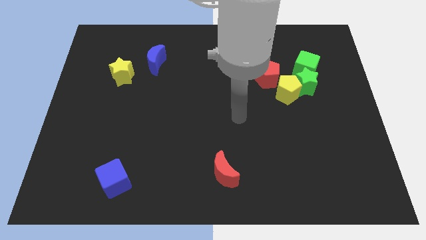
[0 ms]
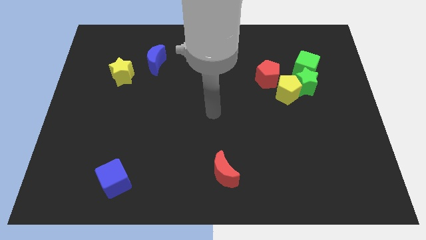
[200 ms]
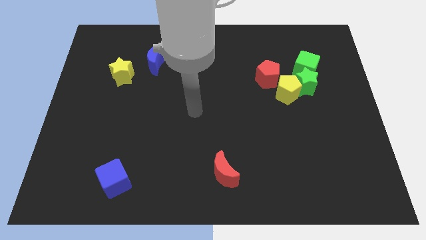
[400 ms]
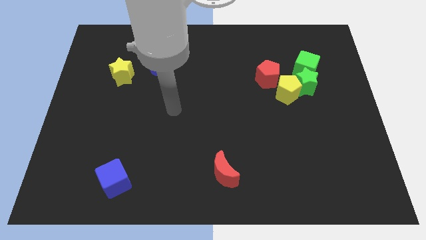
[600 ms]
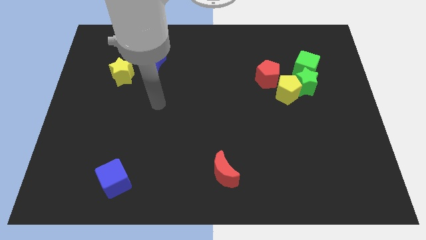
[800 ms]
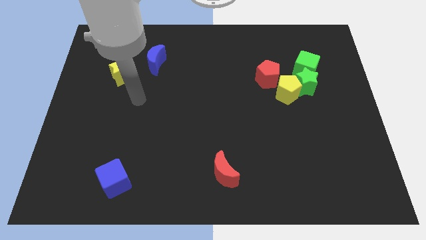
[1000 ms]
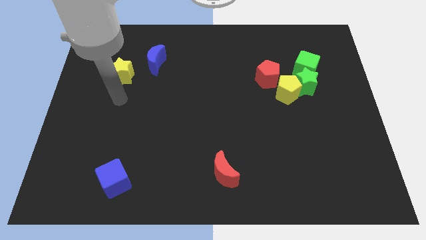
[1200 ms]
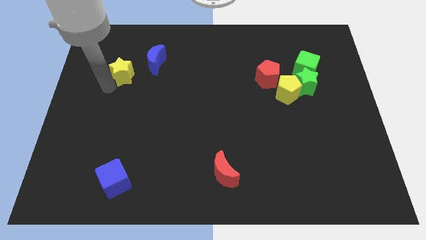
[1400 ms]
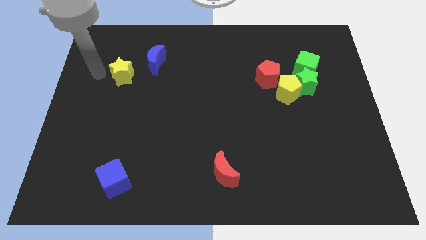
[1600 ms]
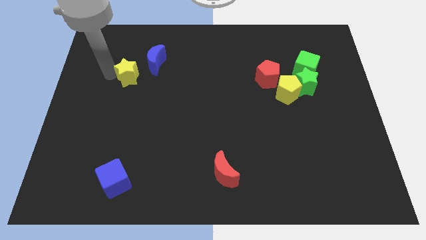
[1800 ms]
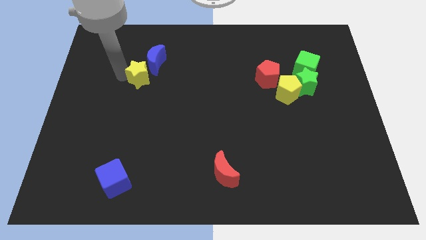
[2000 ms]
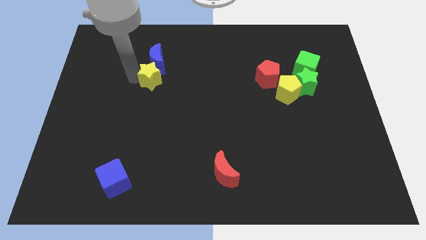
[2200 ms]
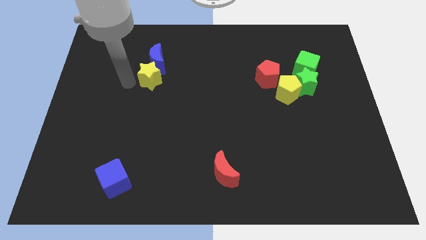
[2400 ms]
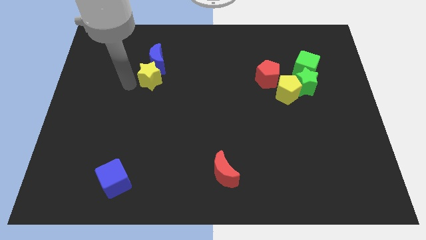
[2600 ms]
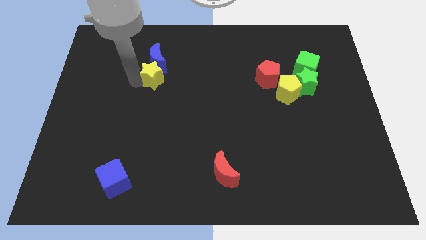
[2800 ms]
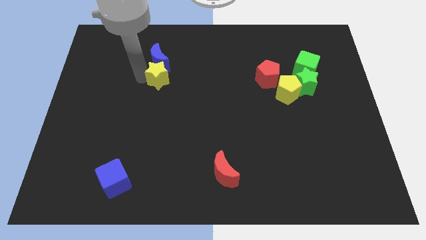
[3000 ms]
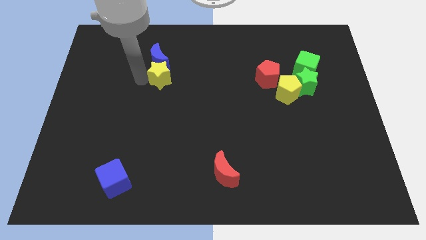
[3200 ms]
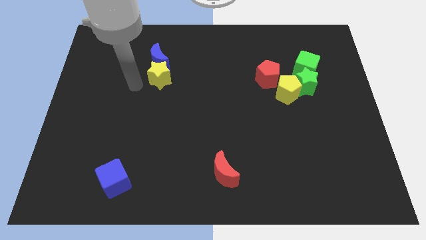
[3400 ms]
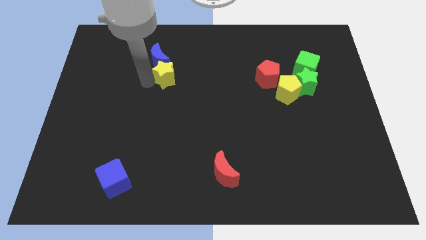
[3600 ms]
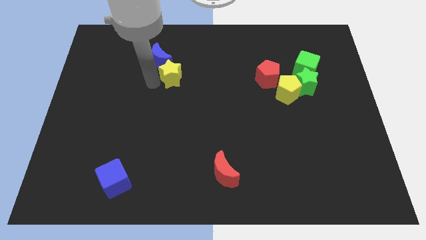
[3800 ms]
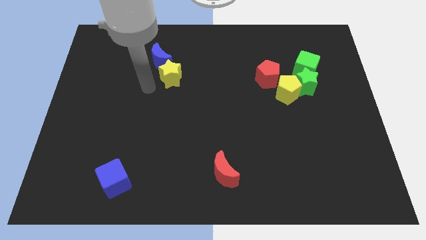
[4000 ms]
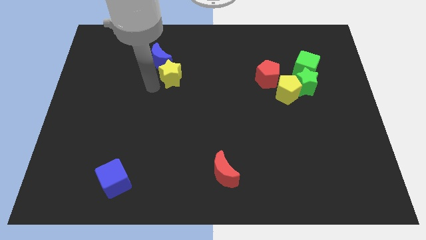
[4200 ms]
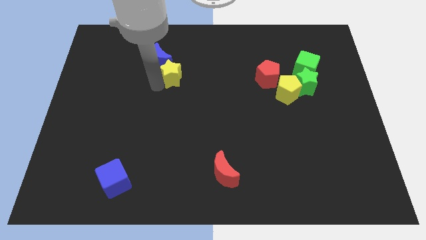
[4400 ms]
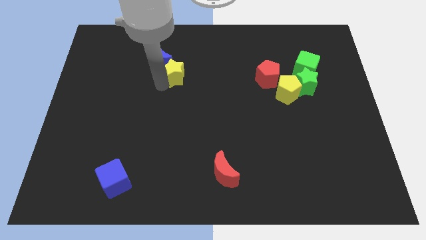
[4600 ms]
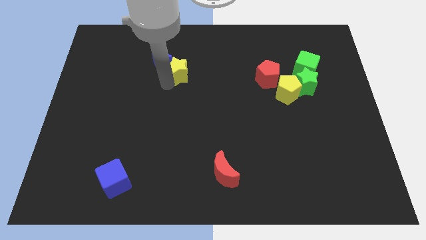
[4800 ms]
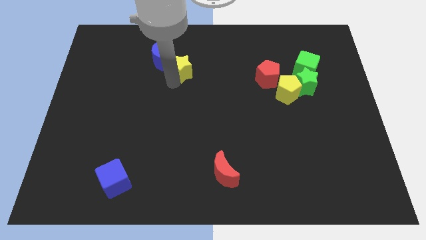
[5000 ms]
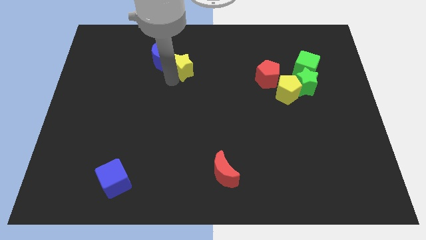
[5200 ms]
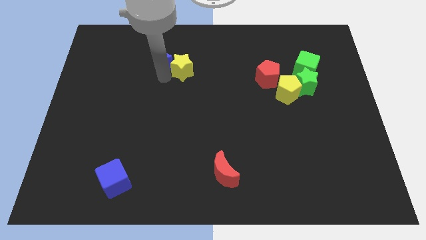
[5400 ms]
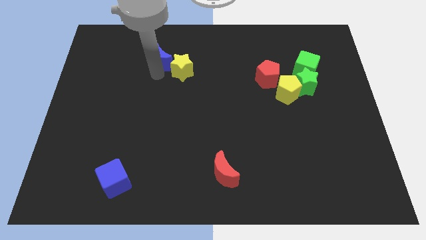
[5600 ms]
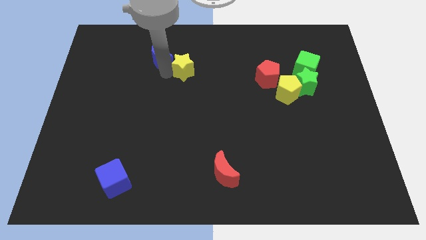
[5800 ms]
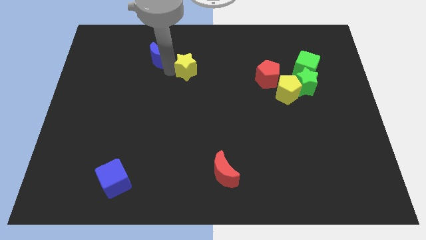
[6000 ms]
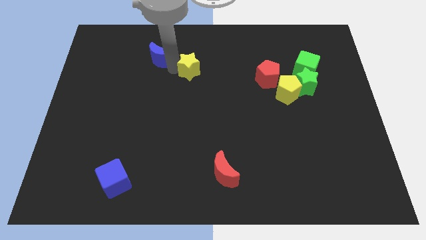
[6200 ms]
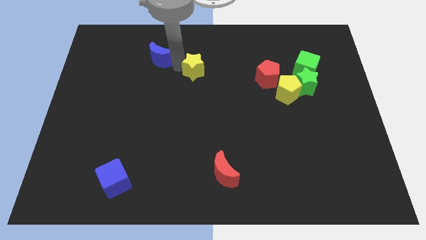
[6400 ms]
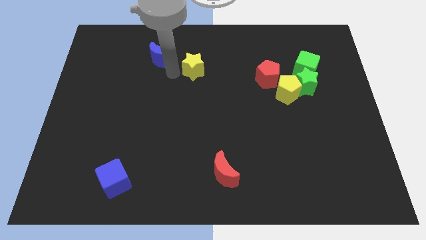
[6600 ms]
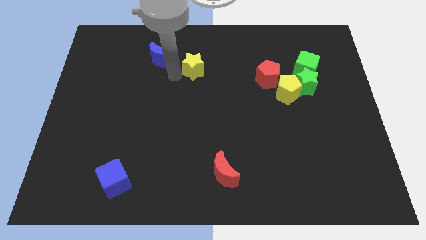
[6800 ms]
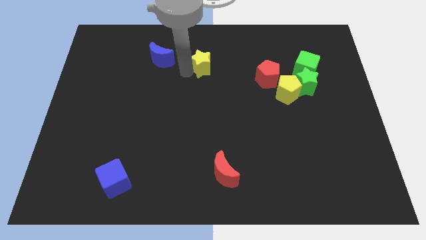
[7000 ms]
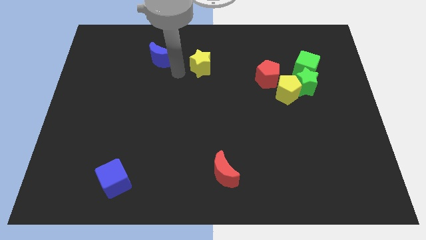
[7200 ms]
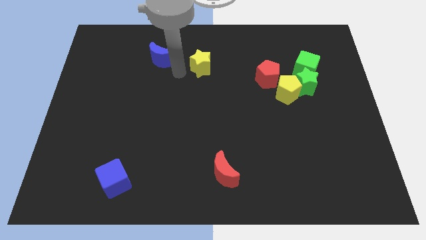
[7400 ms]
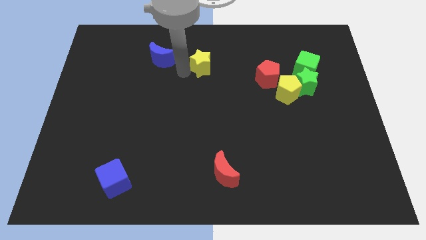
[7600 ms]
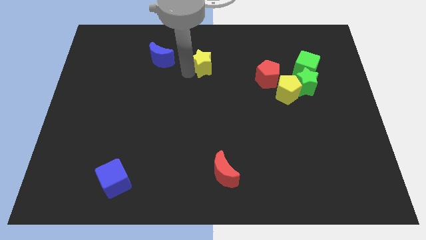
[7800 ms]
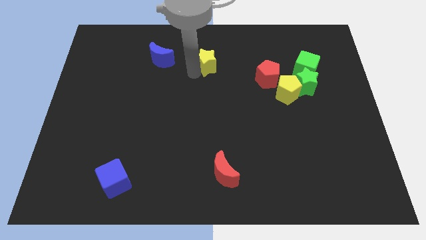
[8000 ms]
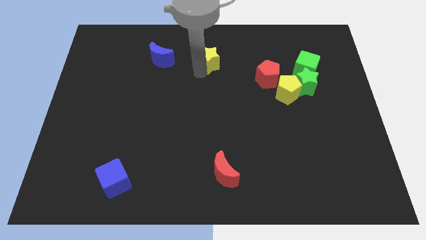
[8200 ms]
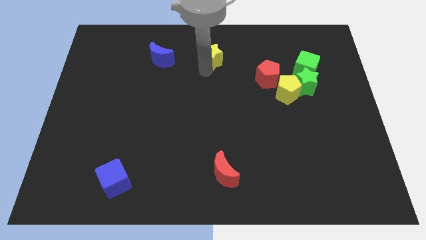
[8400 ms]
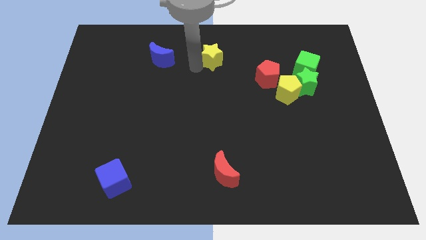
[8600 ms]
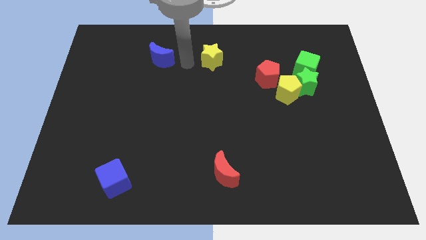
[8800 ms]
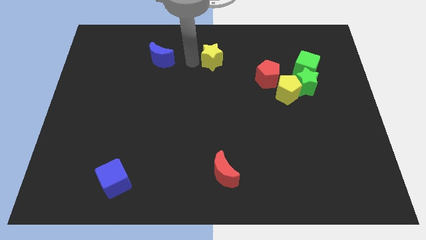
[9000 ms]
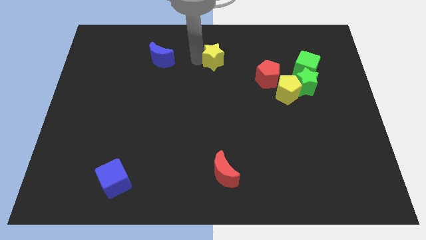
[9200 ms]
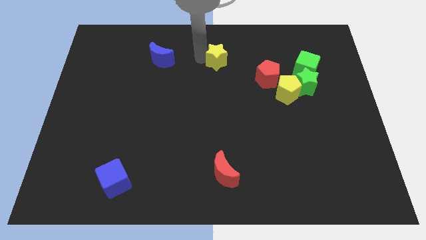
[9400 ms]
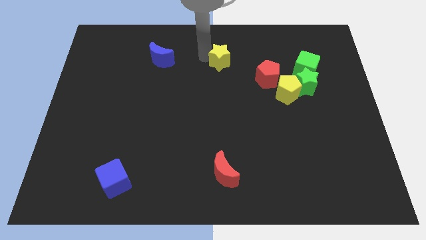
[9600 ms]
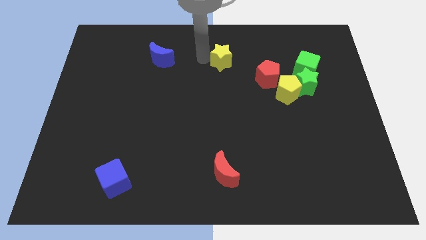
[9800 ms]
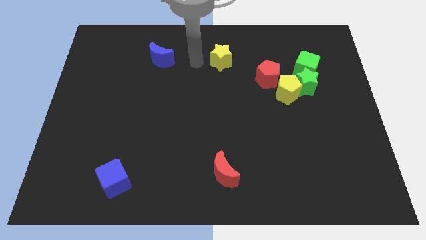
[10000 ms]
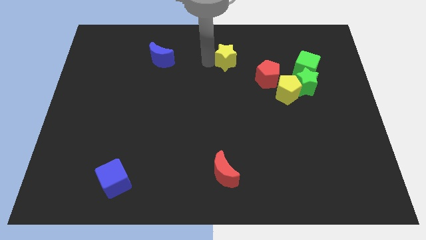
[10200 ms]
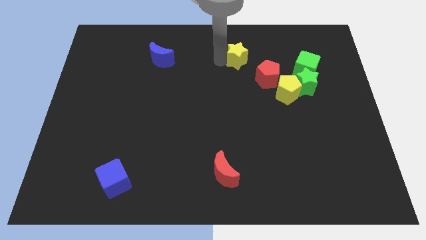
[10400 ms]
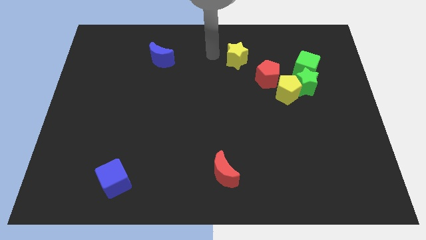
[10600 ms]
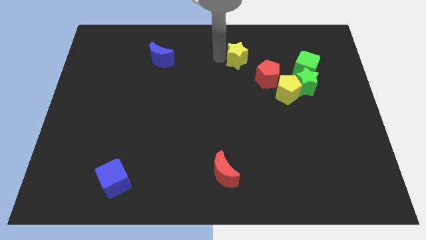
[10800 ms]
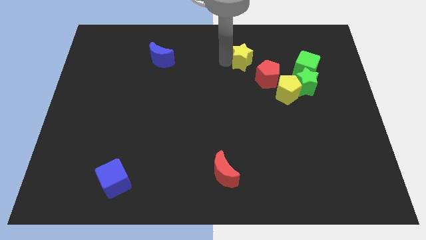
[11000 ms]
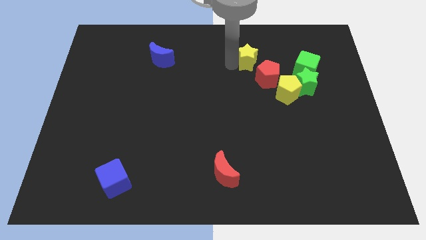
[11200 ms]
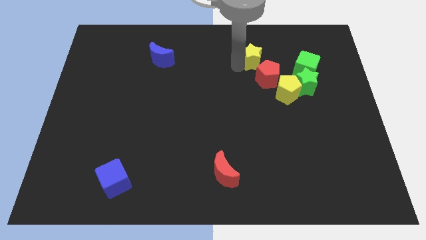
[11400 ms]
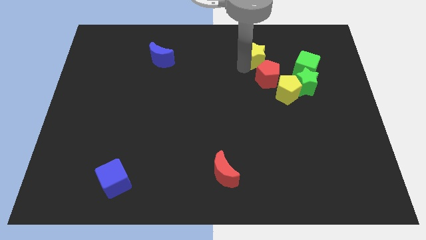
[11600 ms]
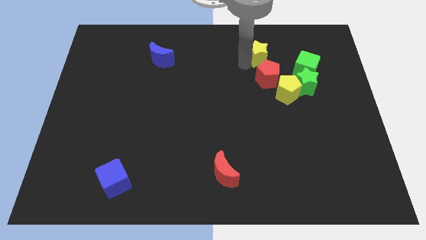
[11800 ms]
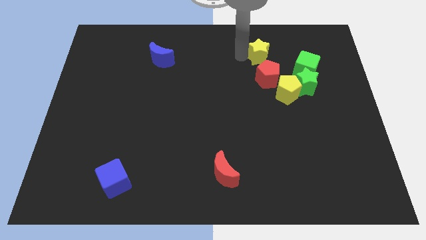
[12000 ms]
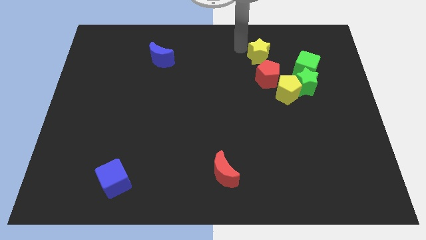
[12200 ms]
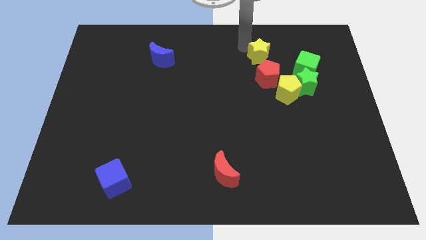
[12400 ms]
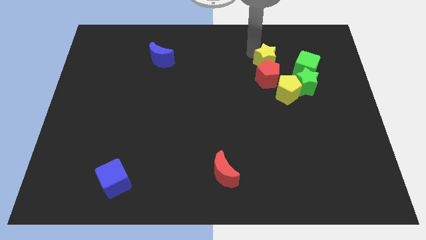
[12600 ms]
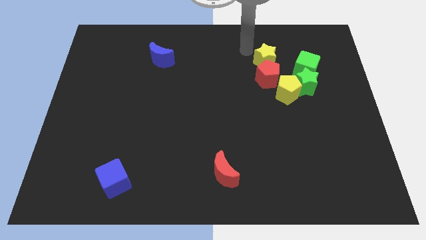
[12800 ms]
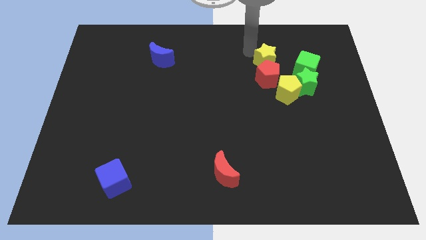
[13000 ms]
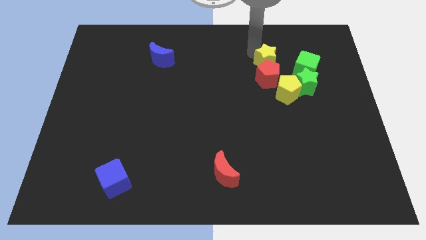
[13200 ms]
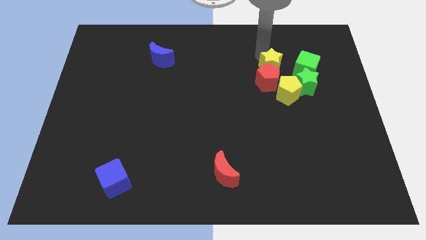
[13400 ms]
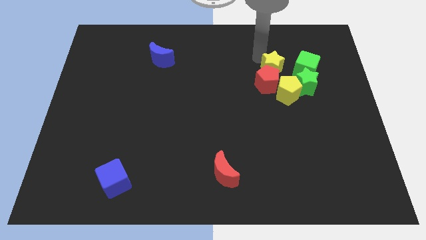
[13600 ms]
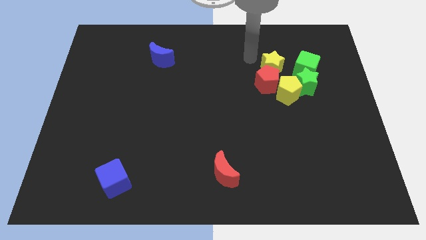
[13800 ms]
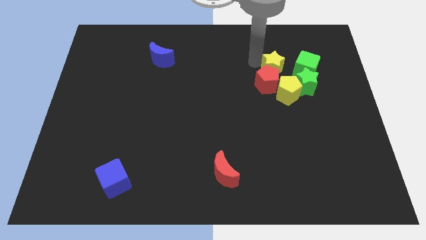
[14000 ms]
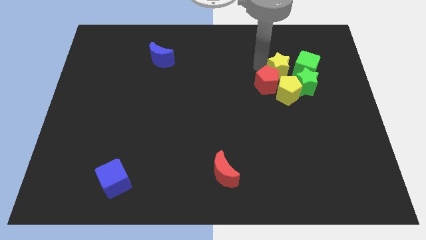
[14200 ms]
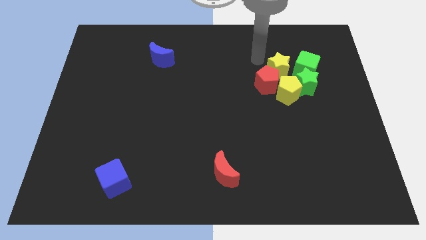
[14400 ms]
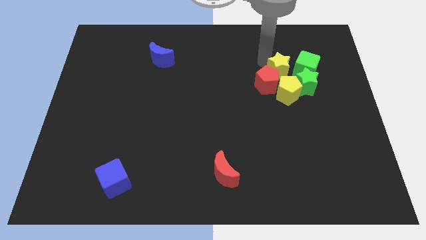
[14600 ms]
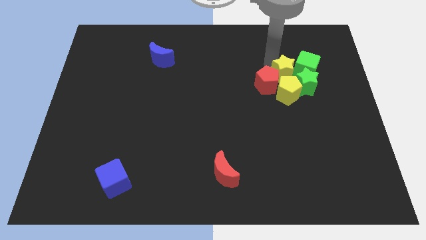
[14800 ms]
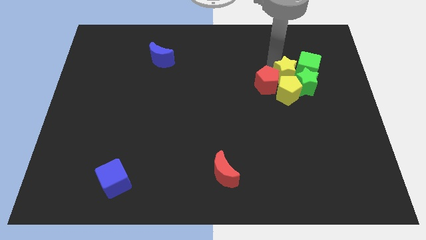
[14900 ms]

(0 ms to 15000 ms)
move the yellow star next to the green star
